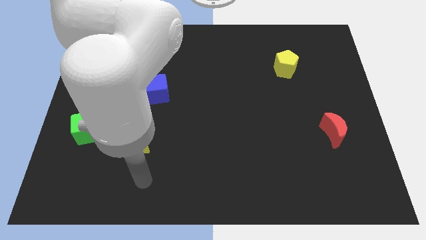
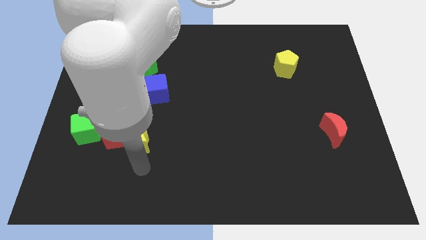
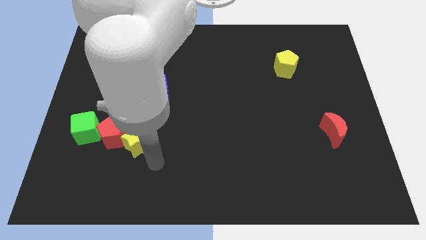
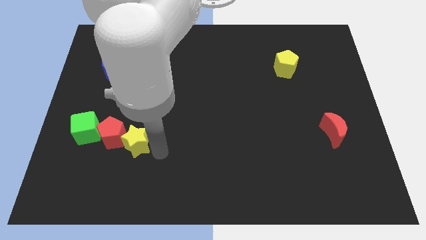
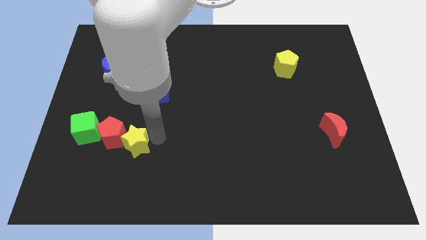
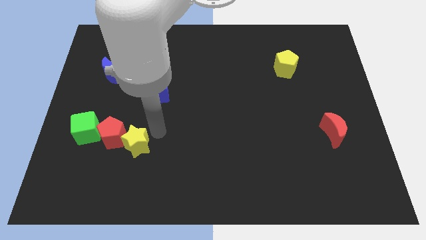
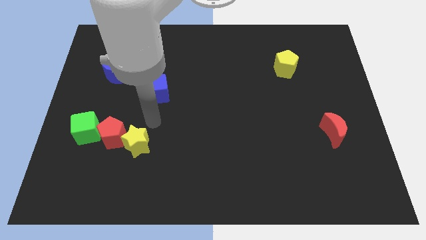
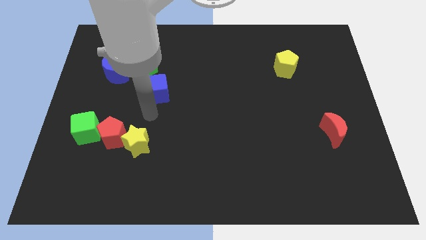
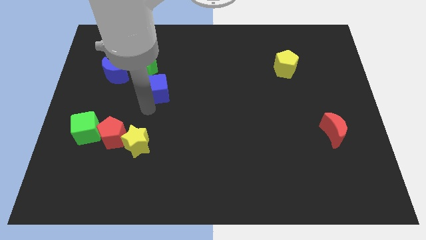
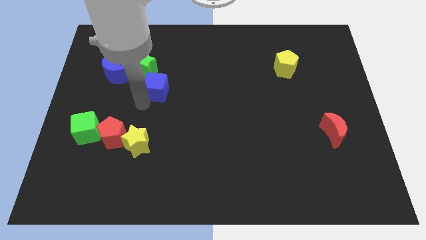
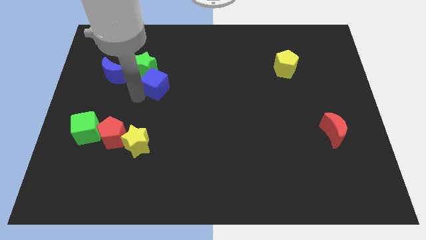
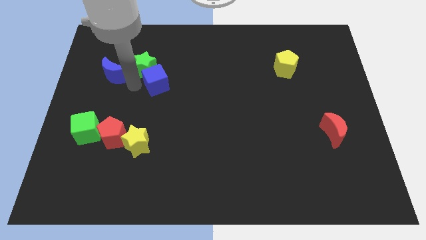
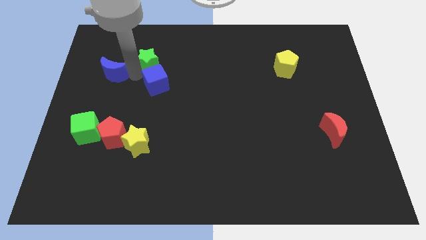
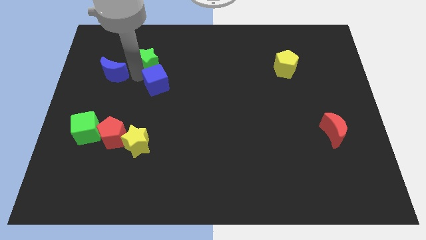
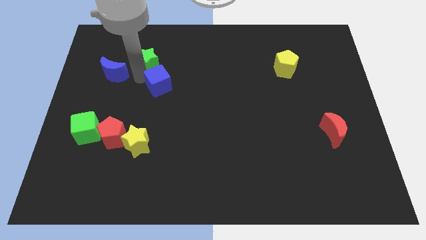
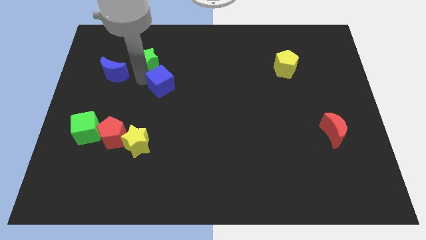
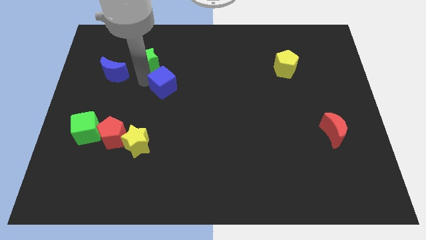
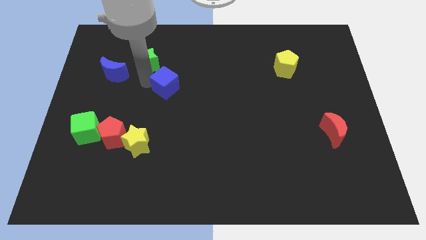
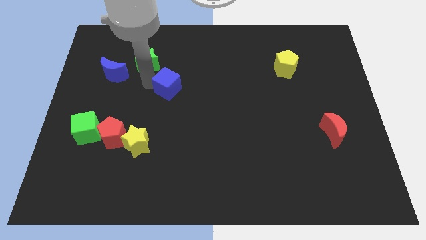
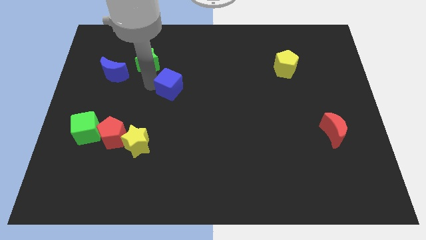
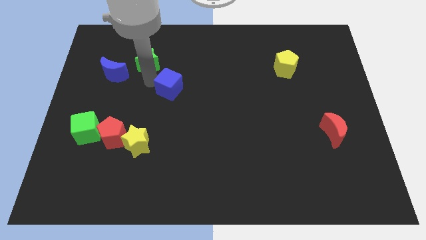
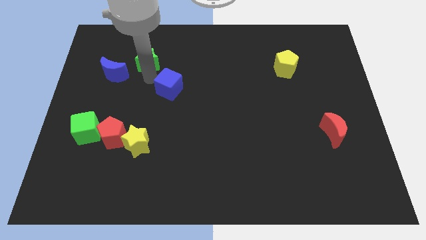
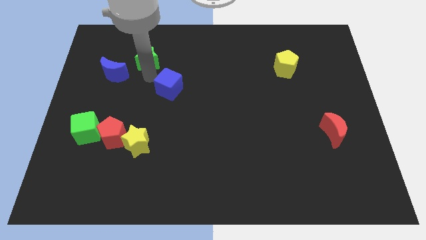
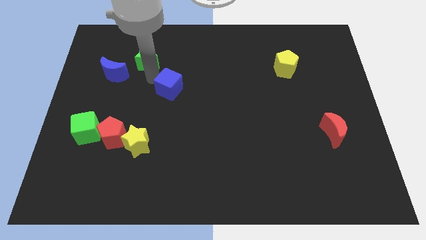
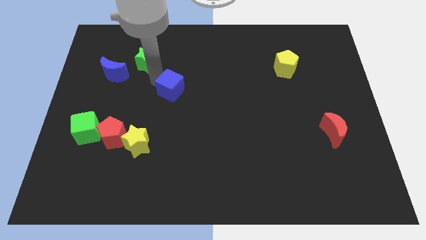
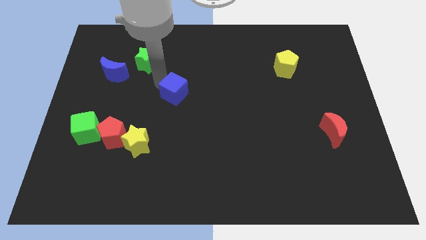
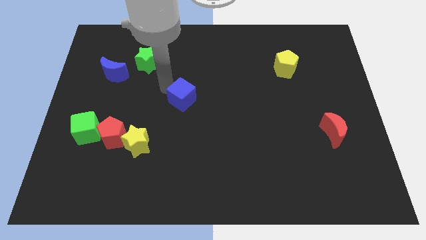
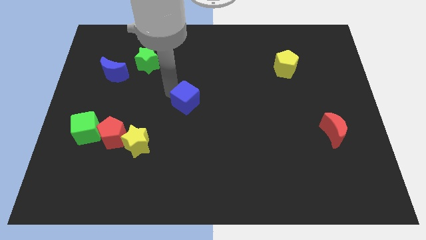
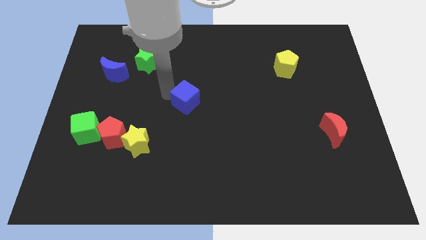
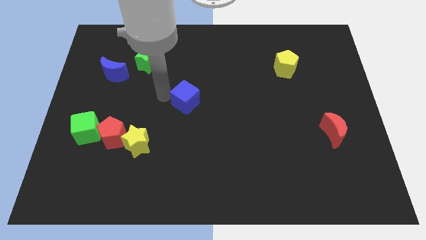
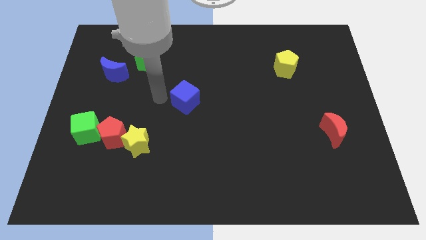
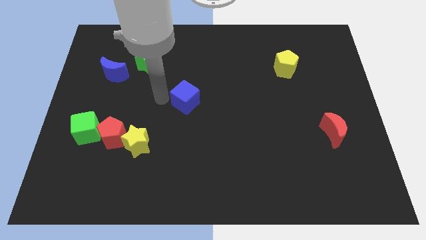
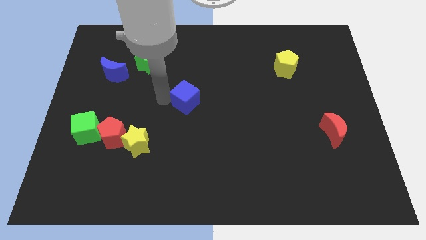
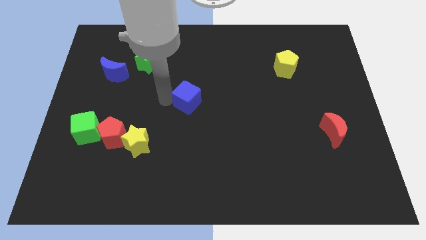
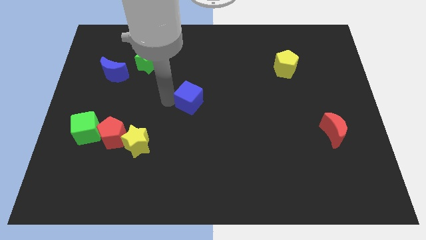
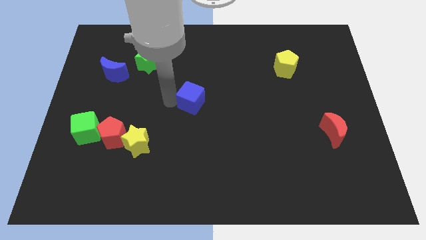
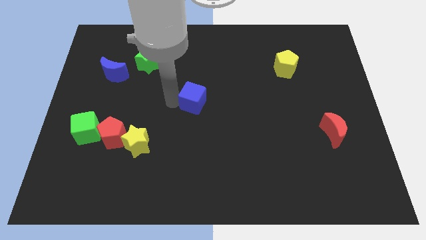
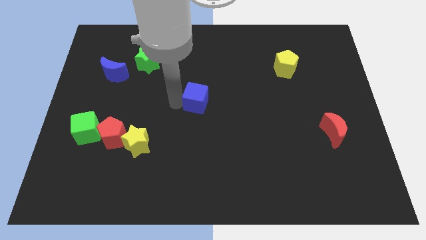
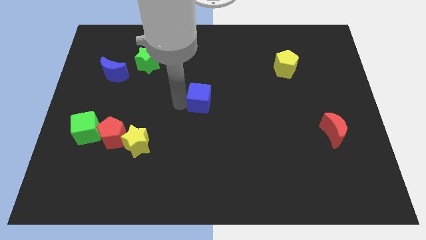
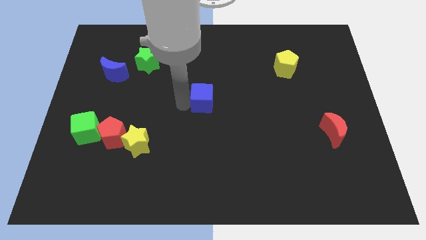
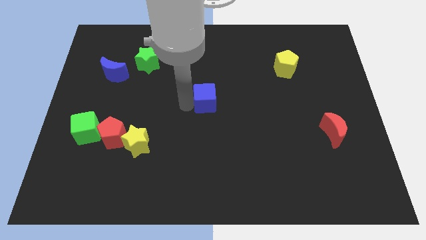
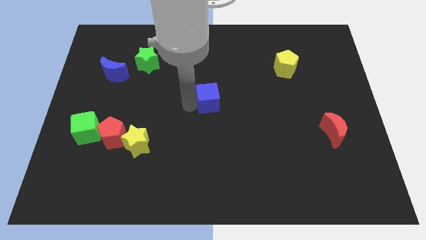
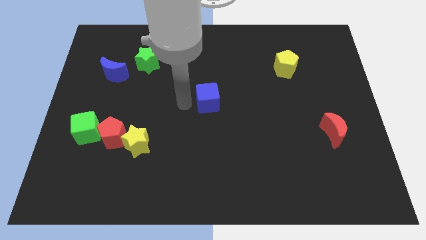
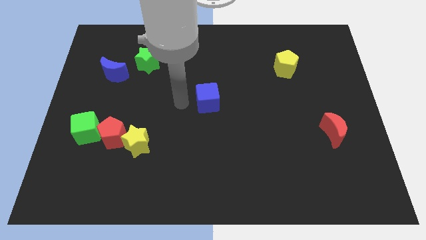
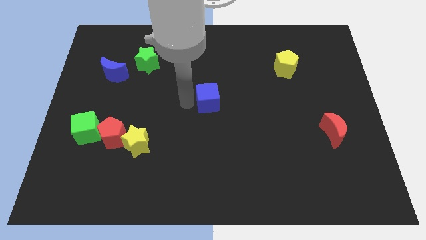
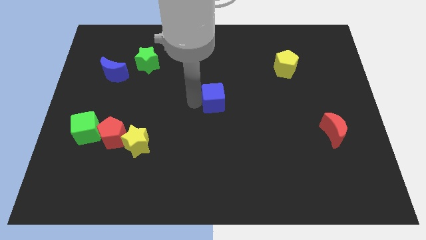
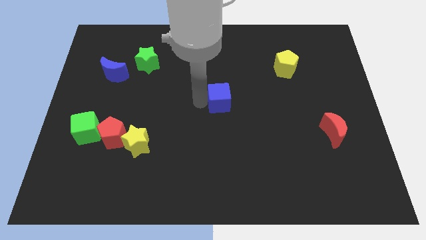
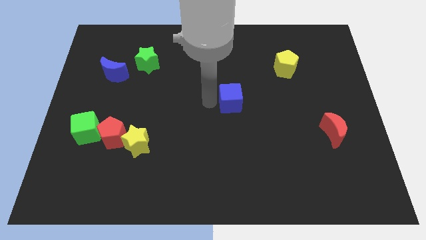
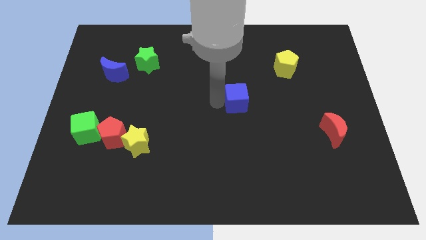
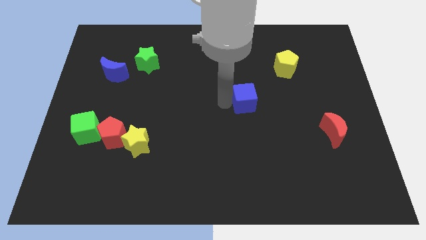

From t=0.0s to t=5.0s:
slide the blue cube right

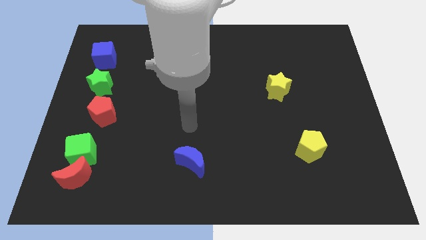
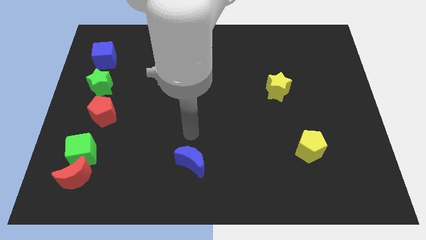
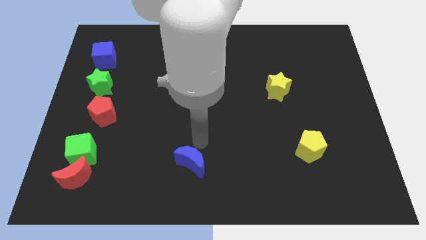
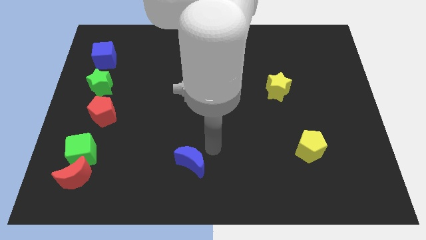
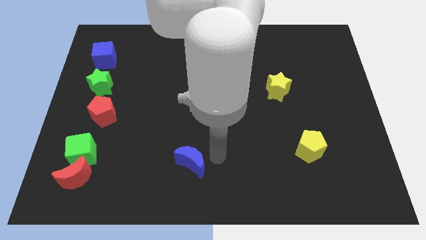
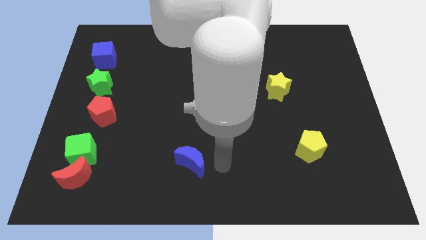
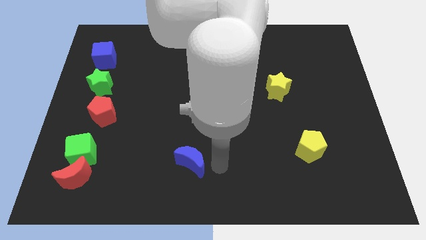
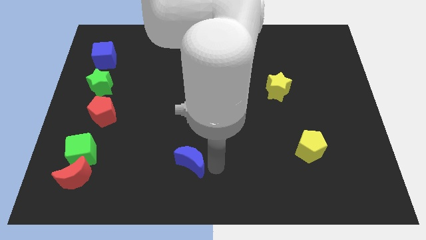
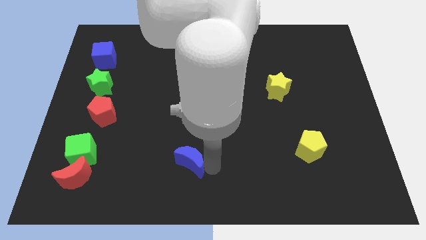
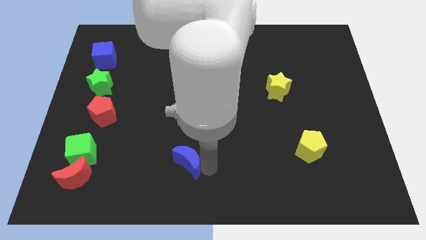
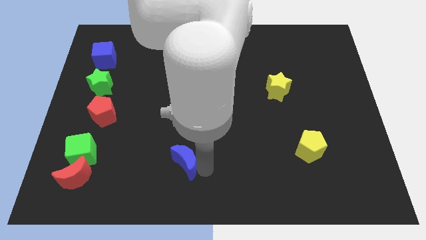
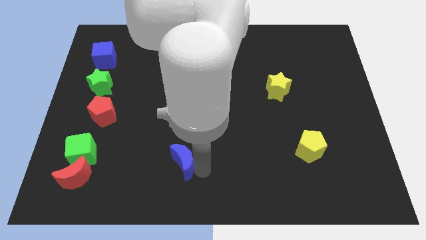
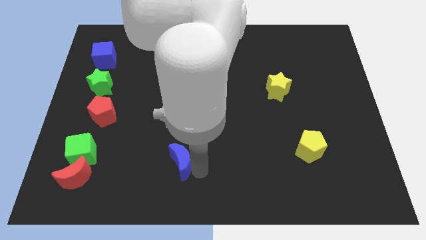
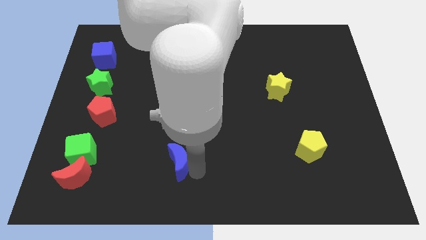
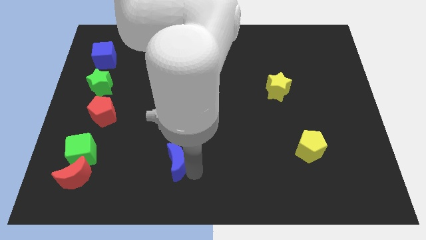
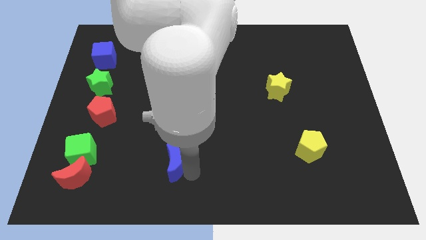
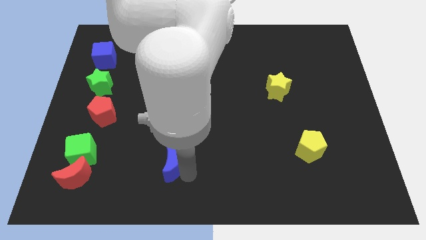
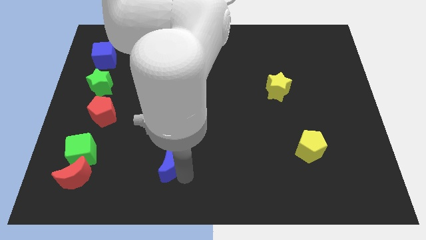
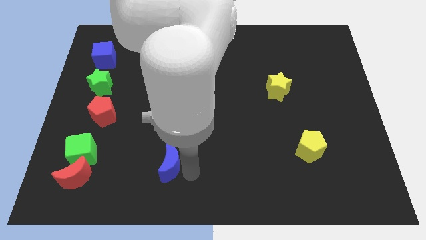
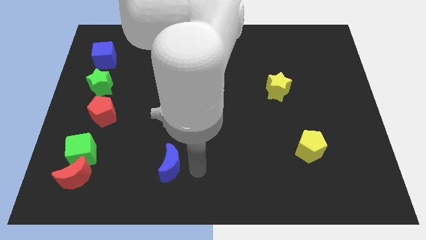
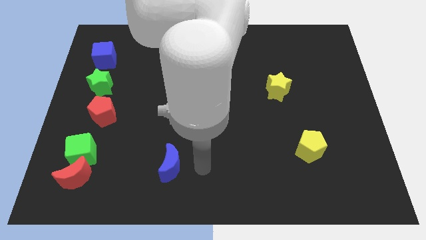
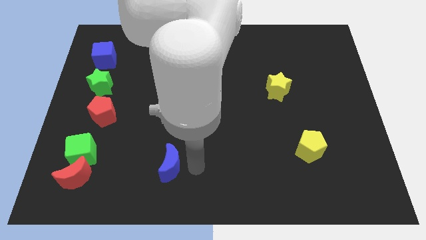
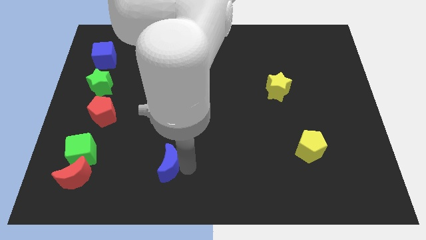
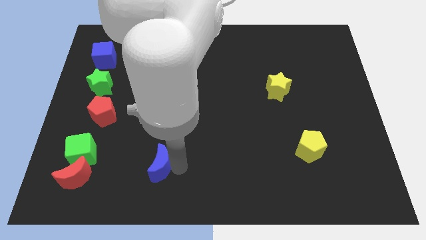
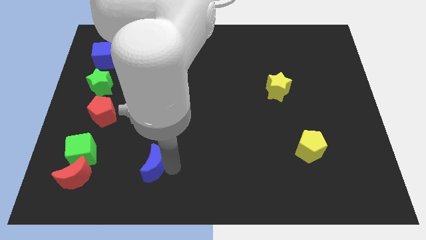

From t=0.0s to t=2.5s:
move the blue moon a little to the left
